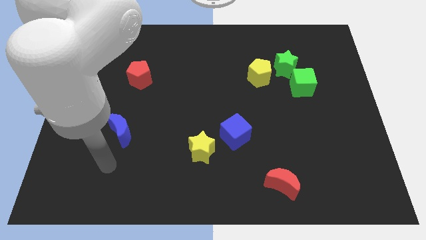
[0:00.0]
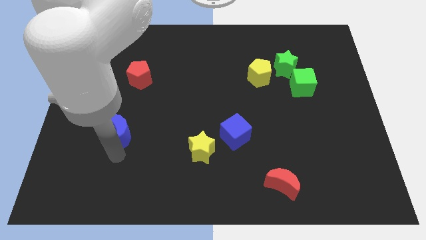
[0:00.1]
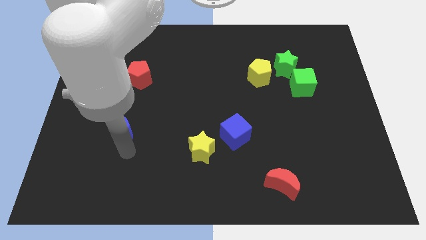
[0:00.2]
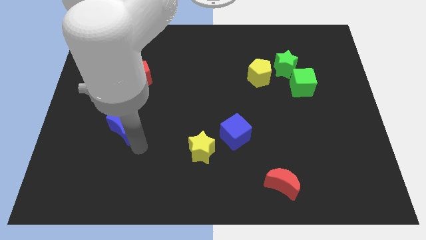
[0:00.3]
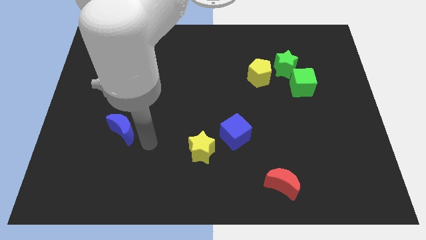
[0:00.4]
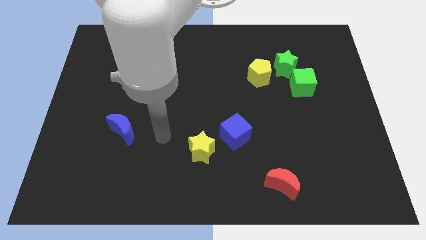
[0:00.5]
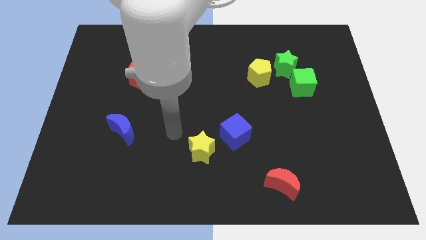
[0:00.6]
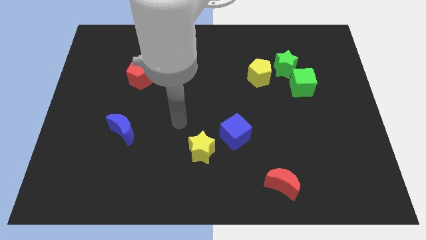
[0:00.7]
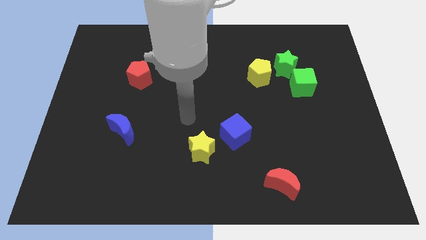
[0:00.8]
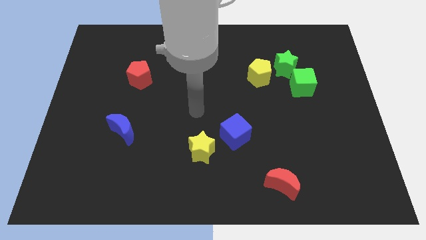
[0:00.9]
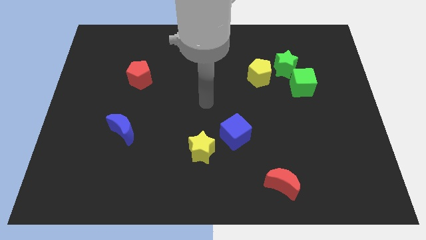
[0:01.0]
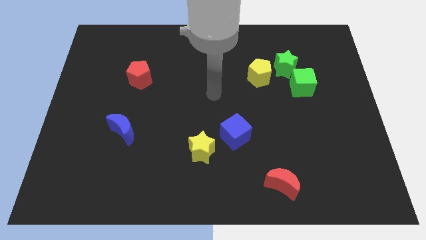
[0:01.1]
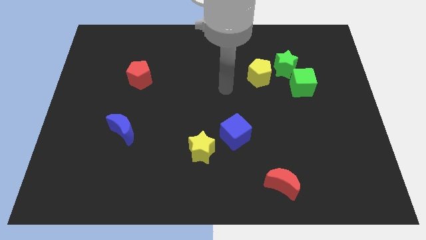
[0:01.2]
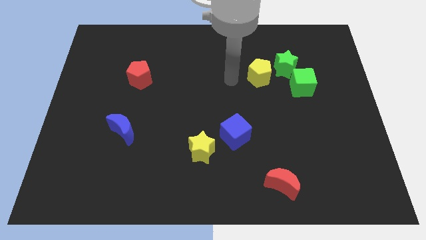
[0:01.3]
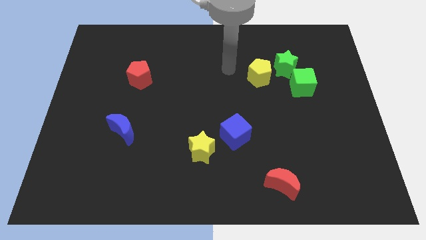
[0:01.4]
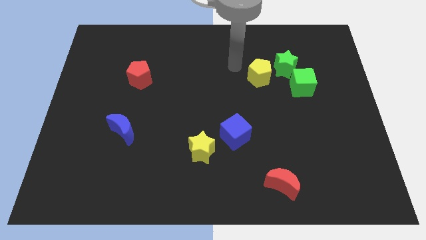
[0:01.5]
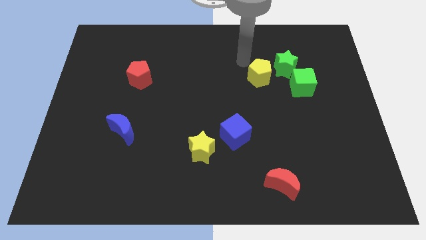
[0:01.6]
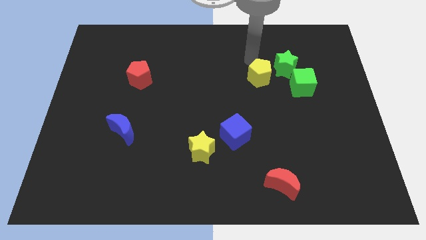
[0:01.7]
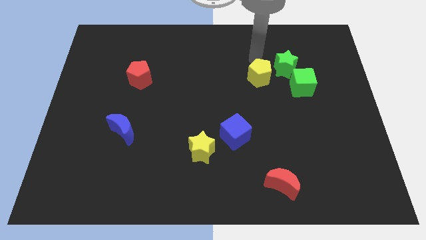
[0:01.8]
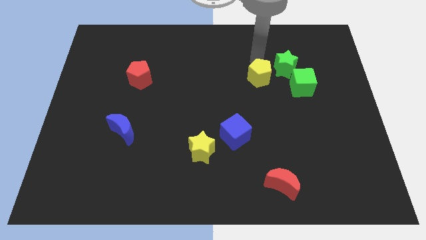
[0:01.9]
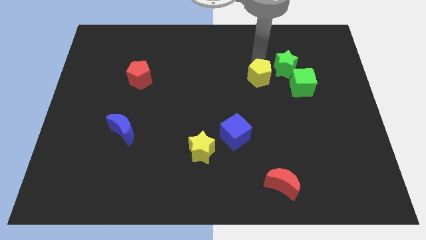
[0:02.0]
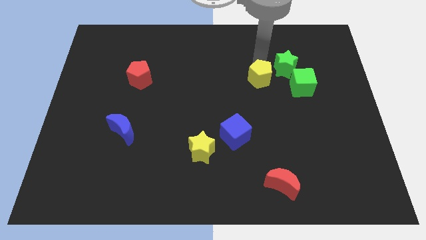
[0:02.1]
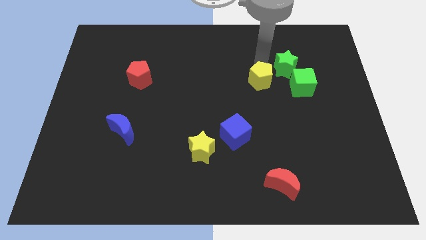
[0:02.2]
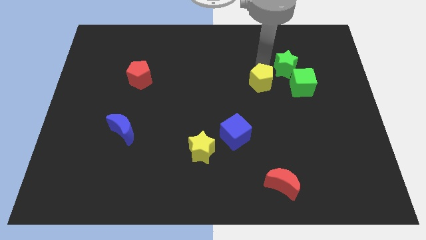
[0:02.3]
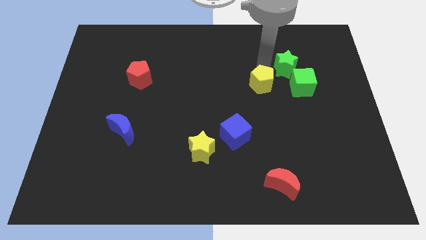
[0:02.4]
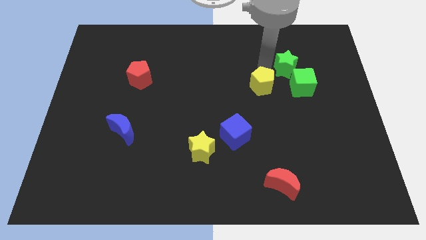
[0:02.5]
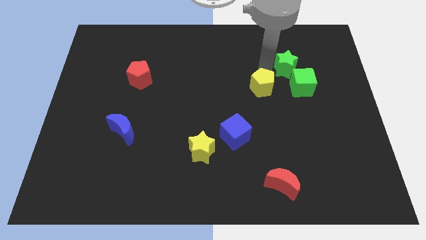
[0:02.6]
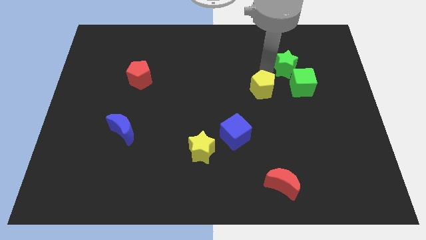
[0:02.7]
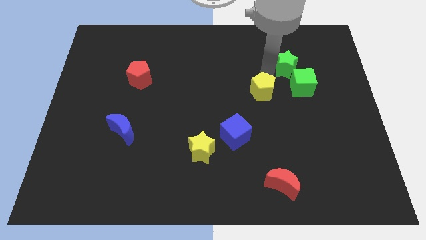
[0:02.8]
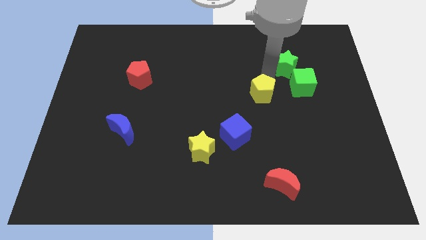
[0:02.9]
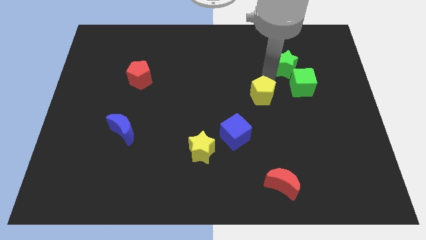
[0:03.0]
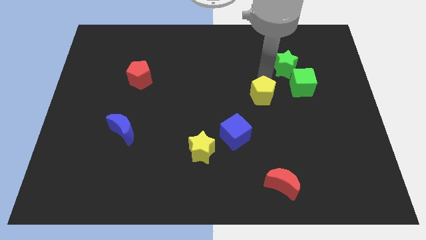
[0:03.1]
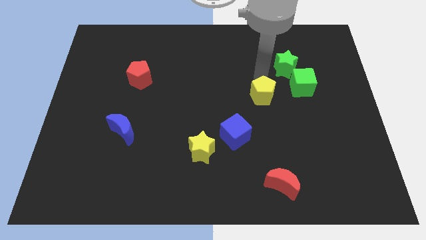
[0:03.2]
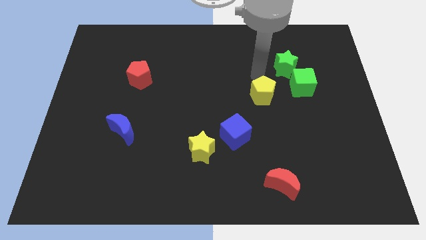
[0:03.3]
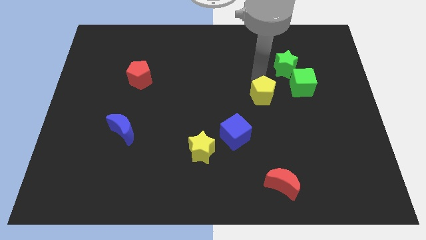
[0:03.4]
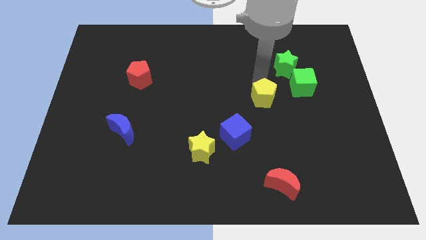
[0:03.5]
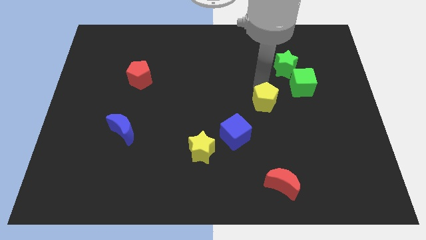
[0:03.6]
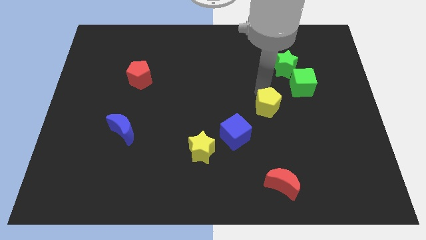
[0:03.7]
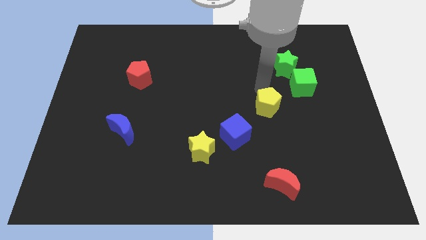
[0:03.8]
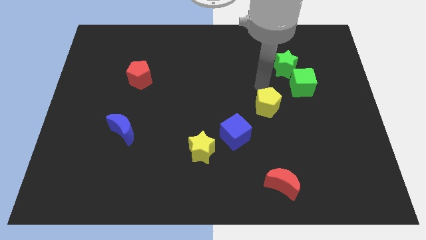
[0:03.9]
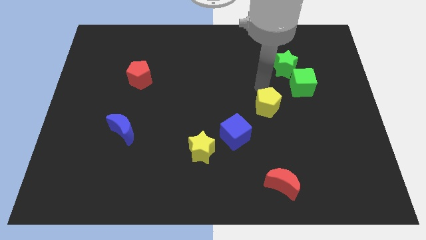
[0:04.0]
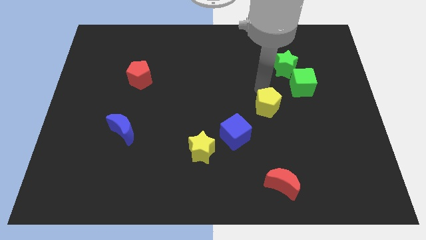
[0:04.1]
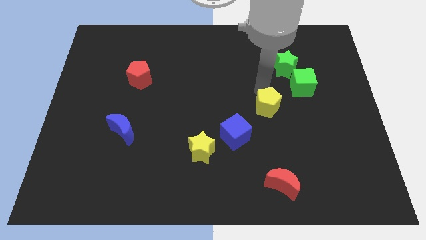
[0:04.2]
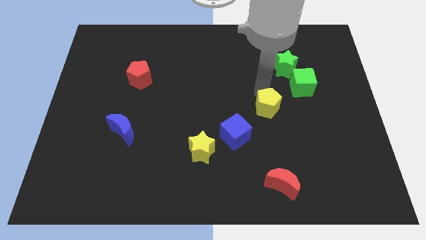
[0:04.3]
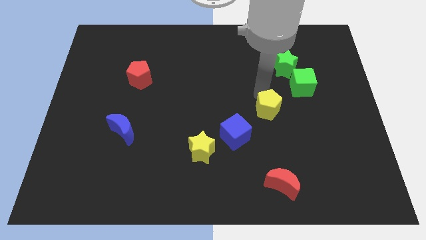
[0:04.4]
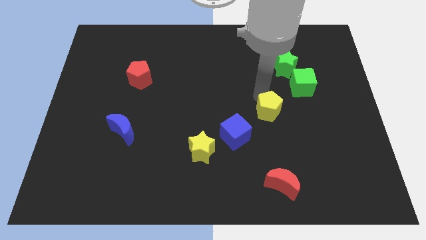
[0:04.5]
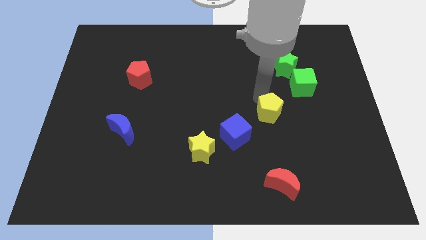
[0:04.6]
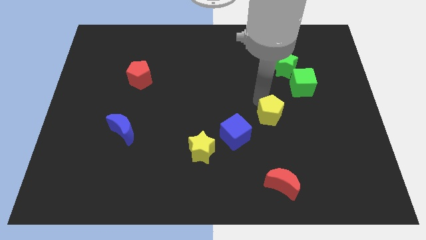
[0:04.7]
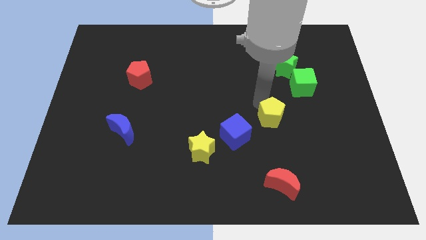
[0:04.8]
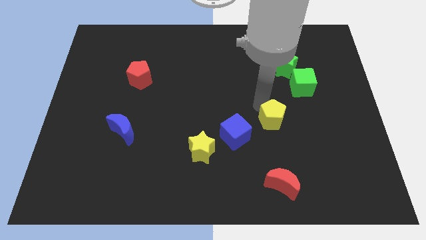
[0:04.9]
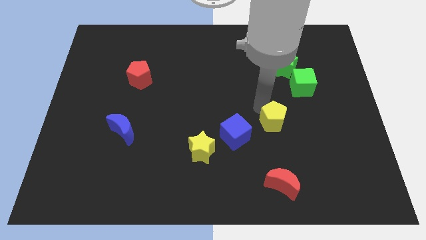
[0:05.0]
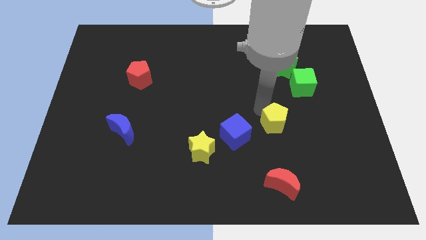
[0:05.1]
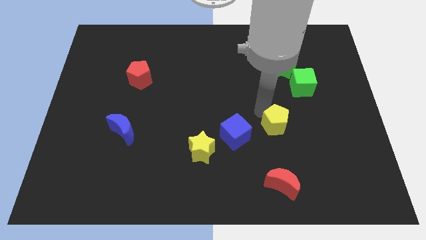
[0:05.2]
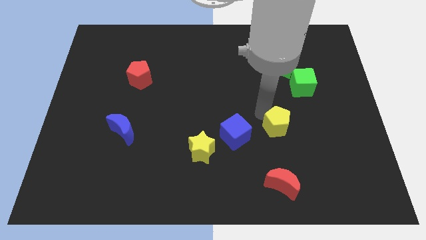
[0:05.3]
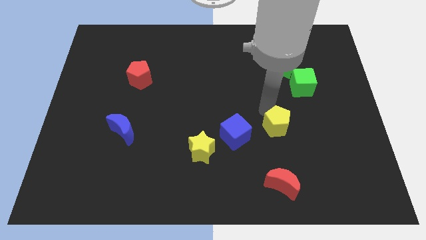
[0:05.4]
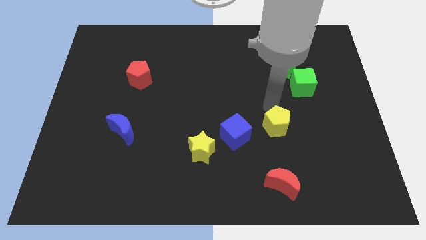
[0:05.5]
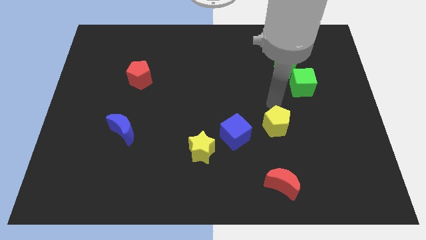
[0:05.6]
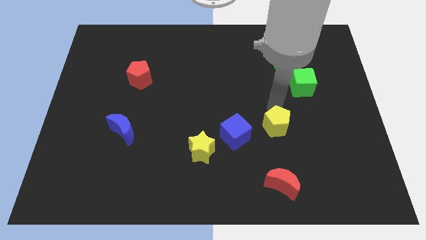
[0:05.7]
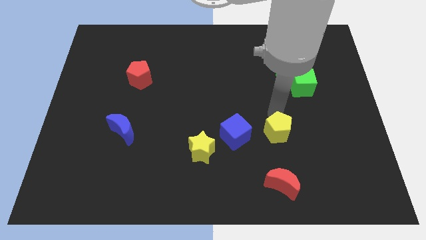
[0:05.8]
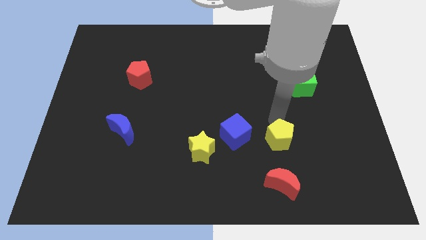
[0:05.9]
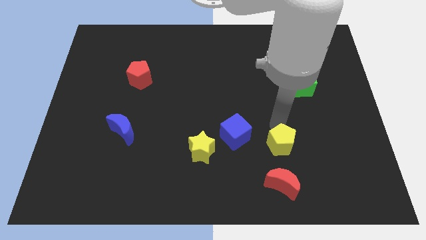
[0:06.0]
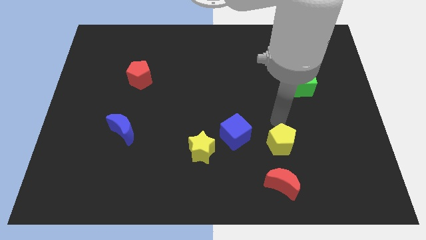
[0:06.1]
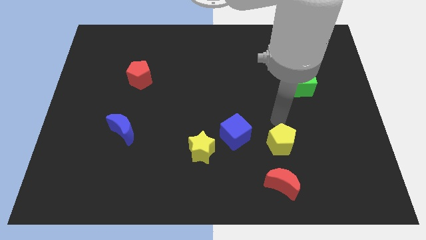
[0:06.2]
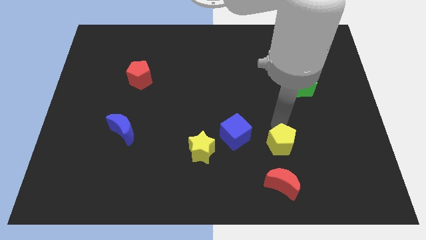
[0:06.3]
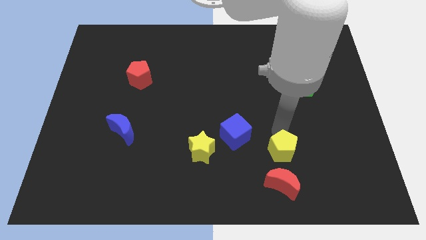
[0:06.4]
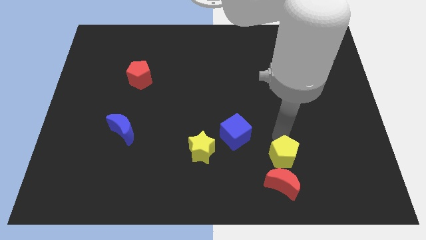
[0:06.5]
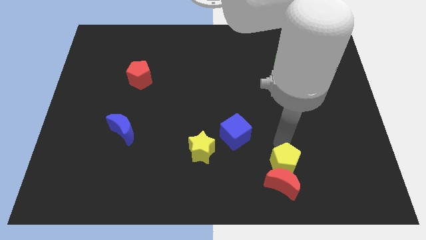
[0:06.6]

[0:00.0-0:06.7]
put the yellow pentagon close to the red moon
